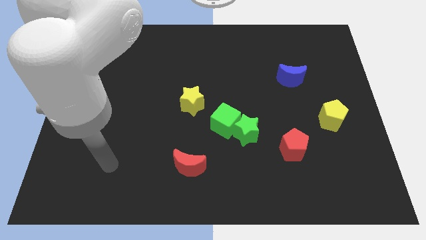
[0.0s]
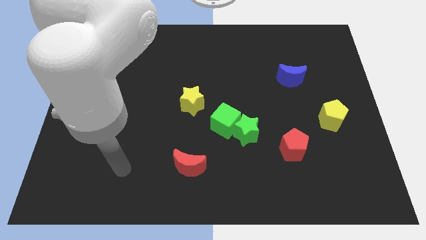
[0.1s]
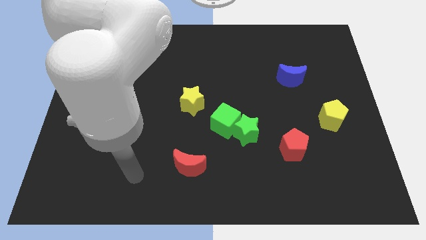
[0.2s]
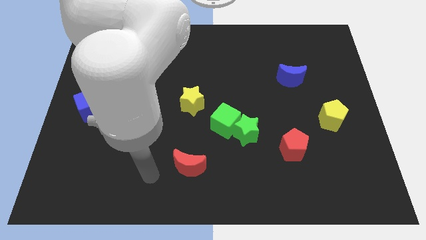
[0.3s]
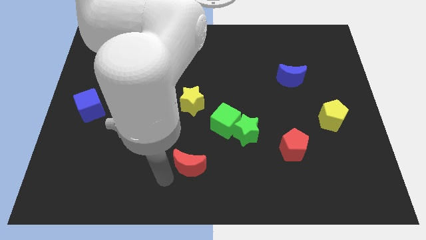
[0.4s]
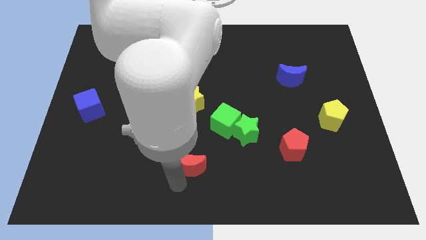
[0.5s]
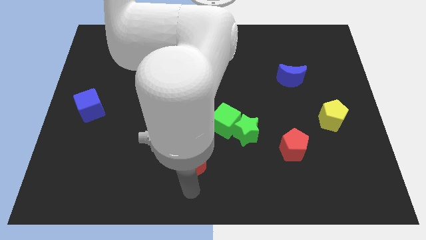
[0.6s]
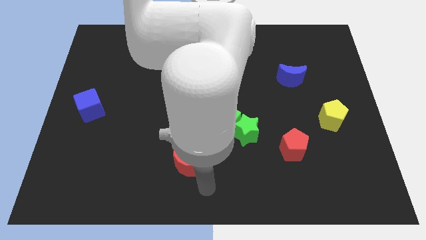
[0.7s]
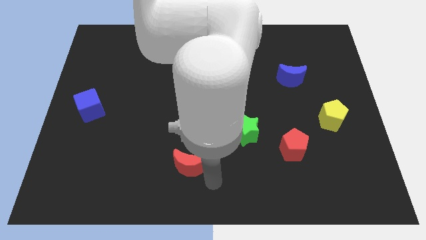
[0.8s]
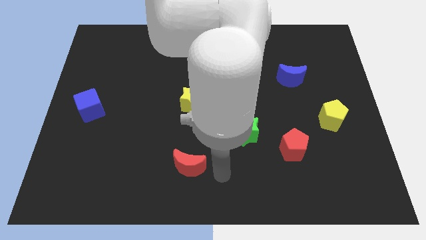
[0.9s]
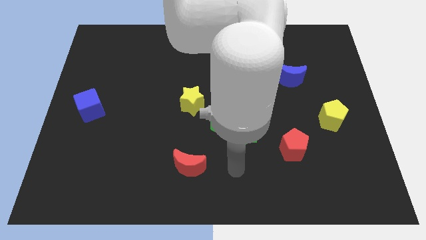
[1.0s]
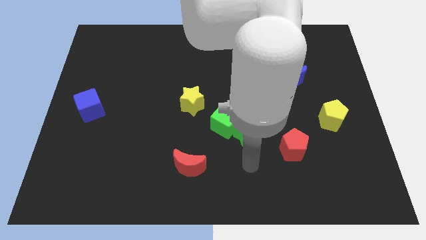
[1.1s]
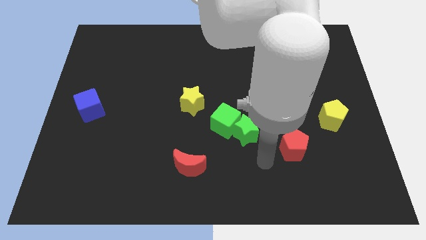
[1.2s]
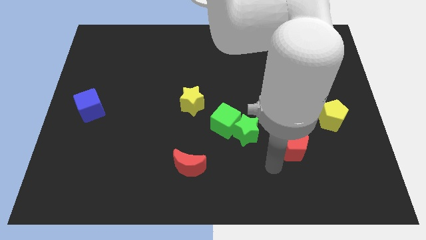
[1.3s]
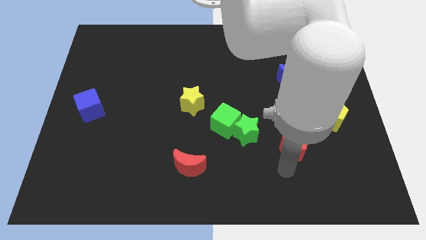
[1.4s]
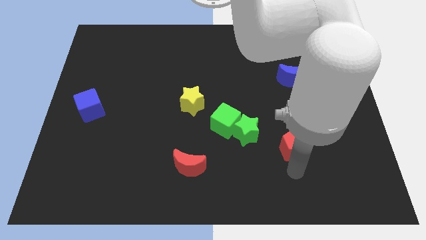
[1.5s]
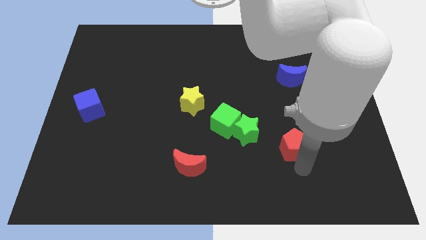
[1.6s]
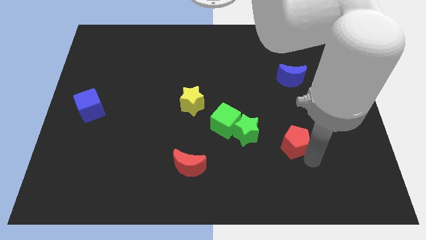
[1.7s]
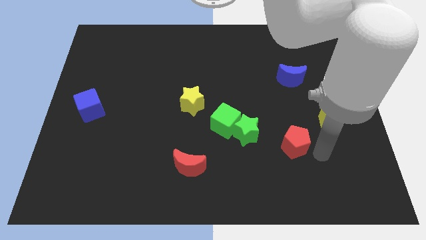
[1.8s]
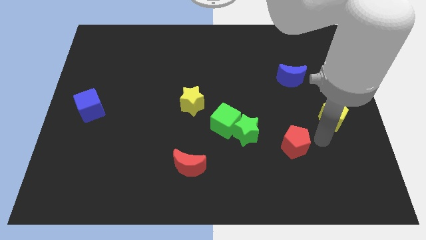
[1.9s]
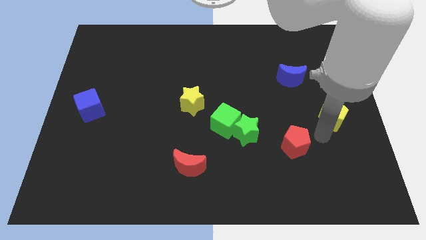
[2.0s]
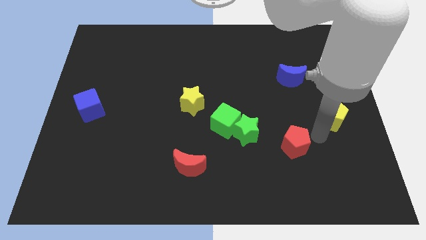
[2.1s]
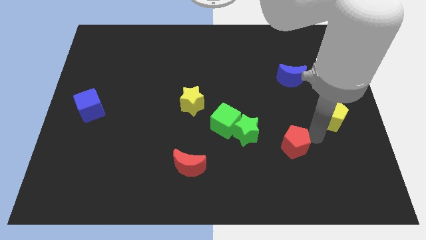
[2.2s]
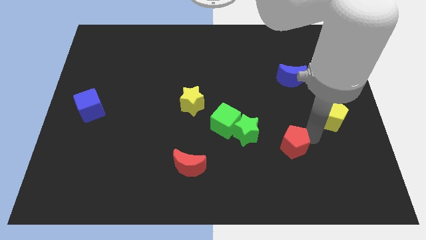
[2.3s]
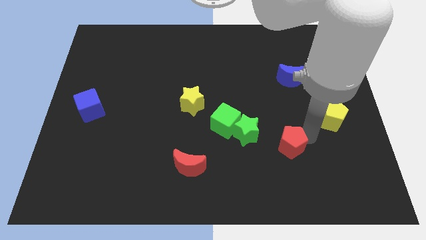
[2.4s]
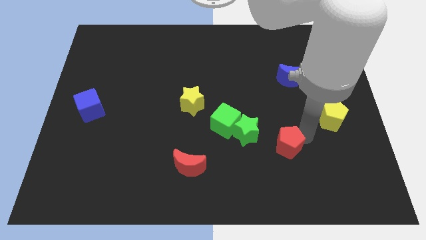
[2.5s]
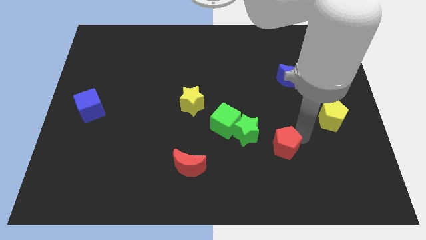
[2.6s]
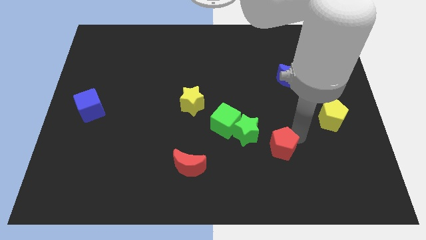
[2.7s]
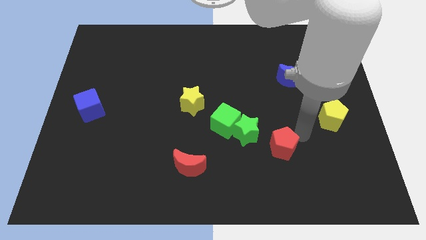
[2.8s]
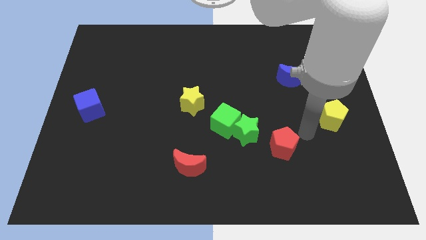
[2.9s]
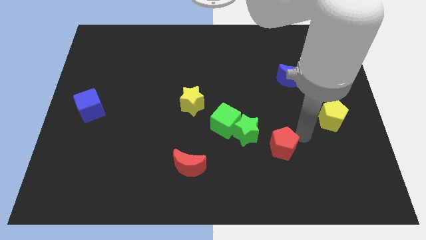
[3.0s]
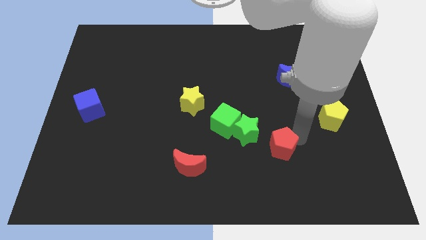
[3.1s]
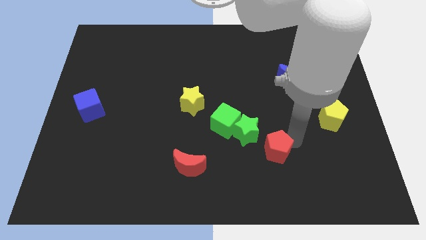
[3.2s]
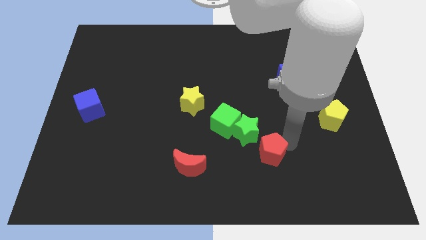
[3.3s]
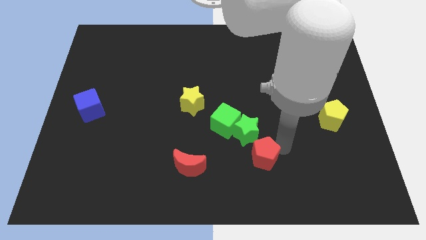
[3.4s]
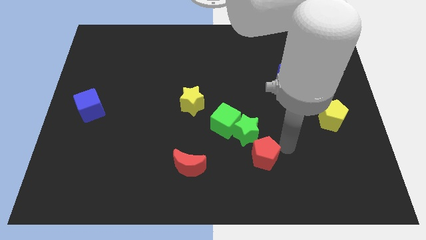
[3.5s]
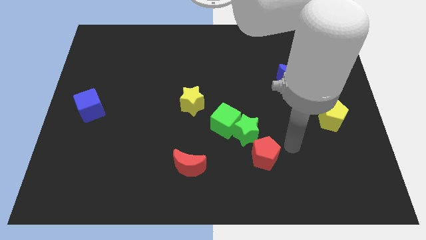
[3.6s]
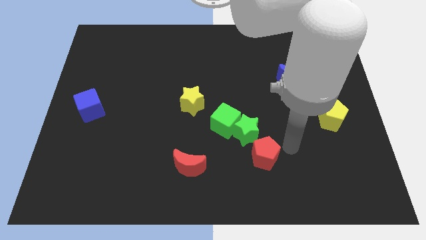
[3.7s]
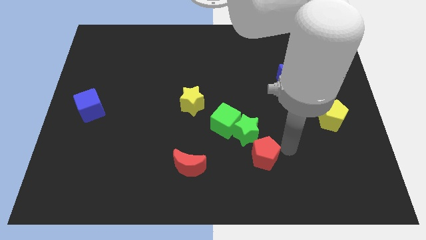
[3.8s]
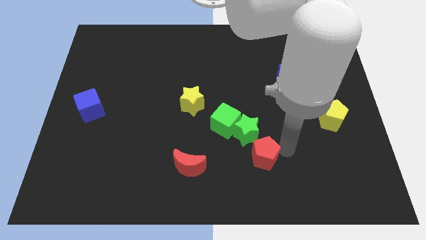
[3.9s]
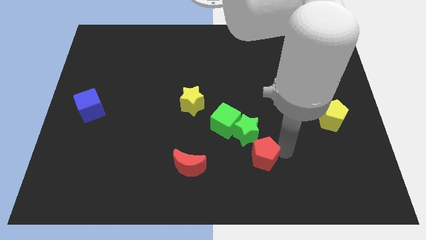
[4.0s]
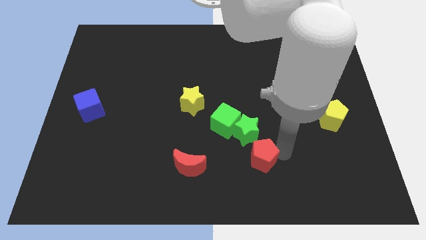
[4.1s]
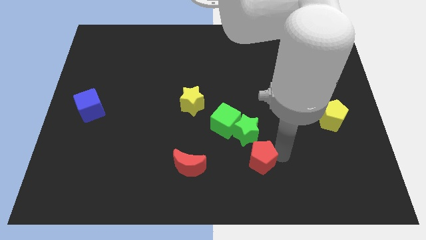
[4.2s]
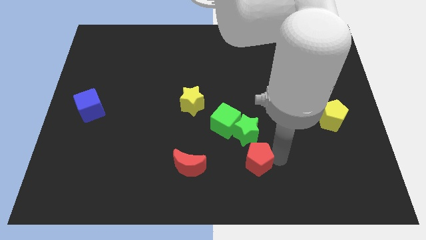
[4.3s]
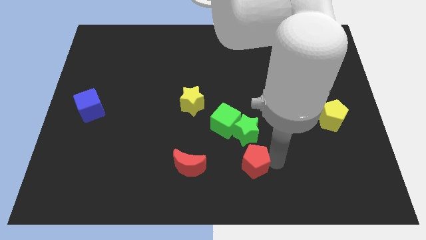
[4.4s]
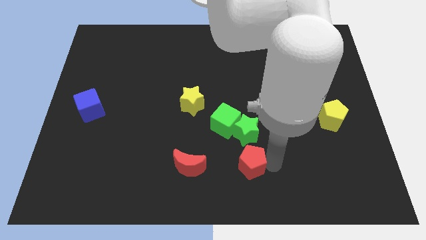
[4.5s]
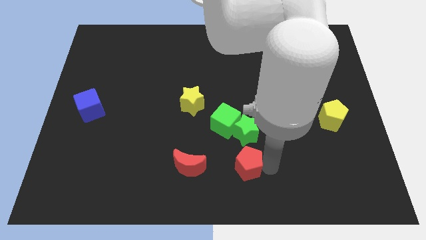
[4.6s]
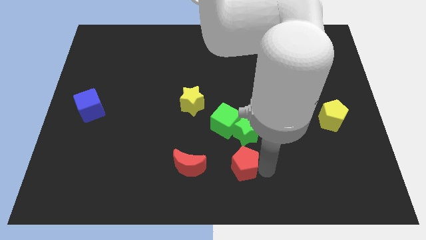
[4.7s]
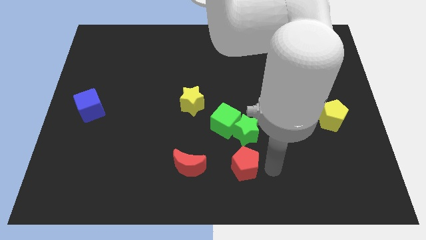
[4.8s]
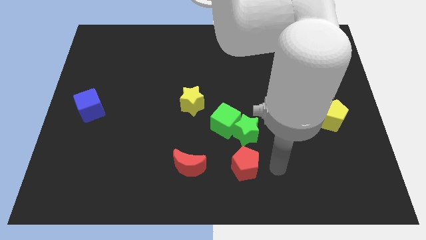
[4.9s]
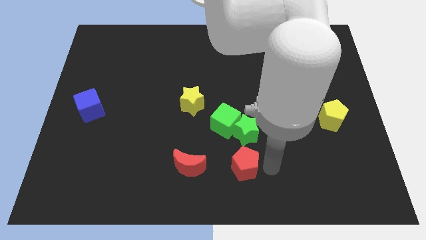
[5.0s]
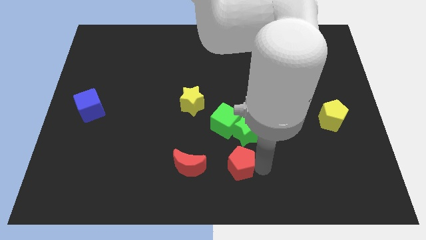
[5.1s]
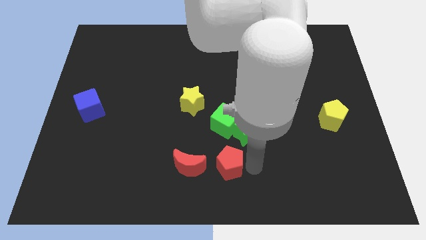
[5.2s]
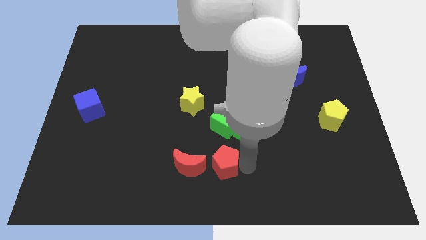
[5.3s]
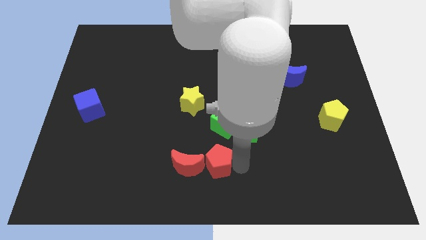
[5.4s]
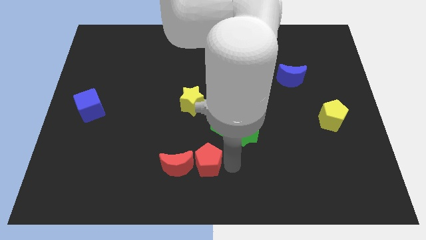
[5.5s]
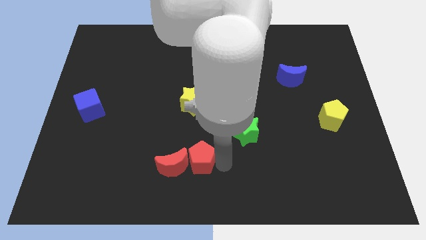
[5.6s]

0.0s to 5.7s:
slide the red pentagon to the red moon

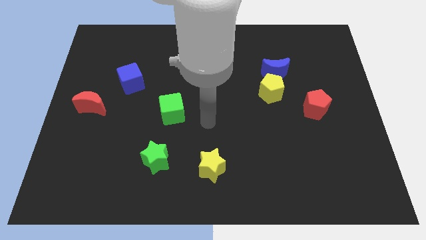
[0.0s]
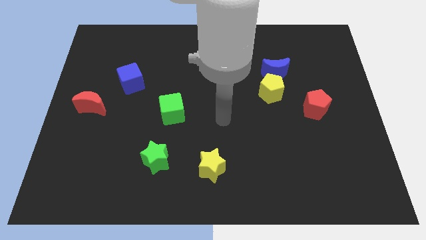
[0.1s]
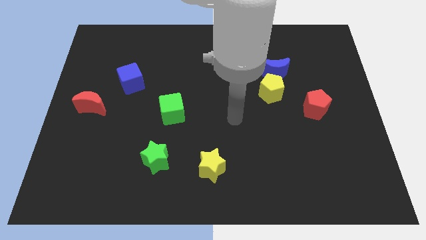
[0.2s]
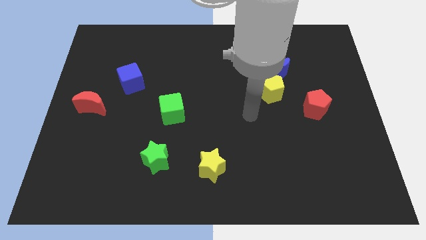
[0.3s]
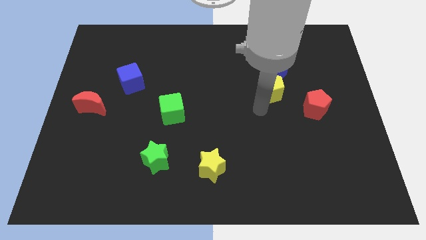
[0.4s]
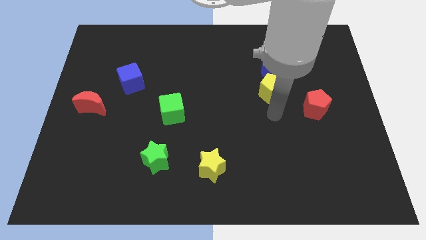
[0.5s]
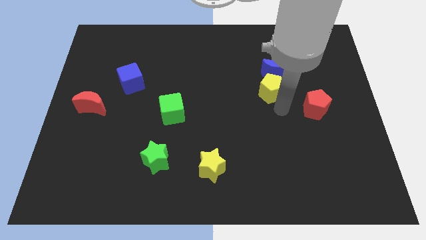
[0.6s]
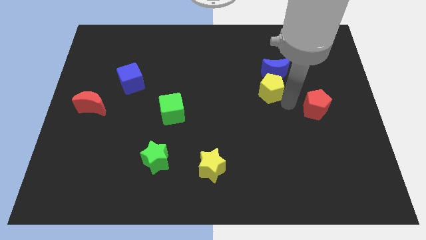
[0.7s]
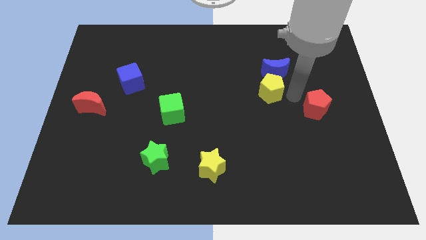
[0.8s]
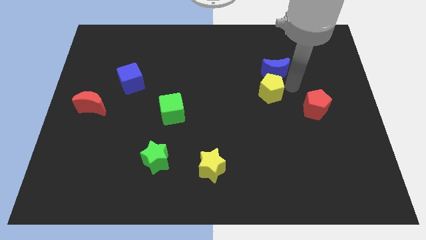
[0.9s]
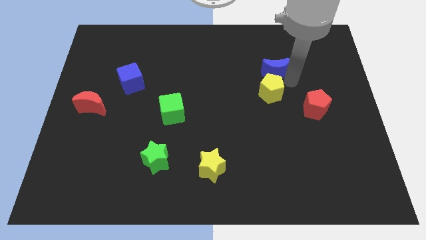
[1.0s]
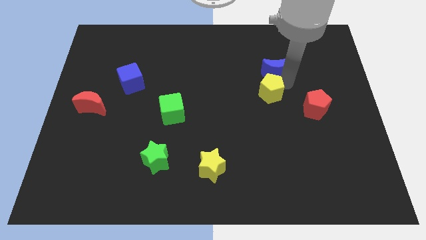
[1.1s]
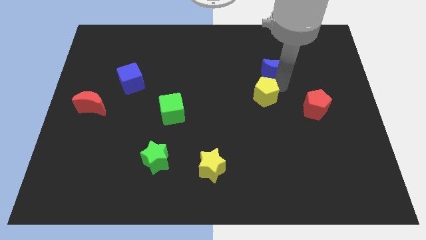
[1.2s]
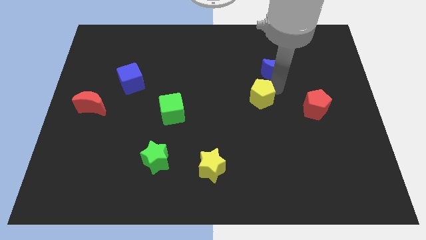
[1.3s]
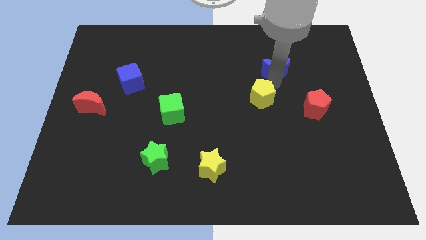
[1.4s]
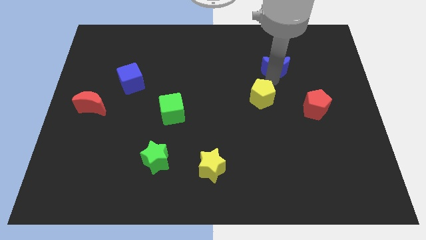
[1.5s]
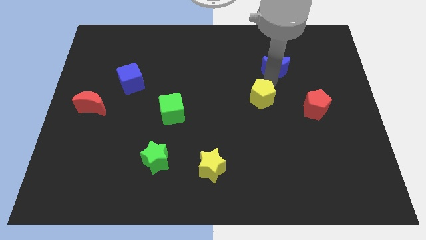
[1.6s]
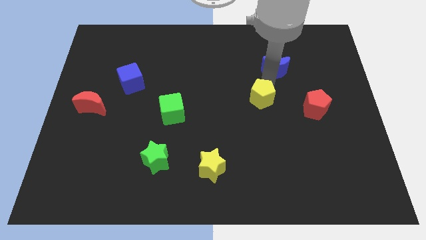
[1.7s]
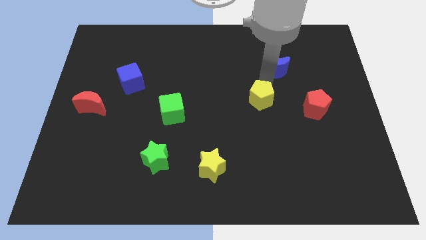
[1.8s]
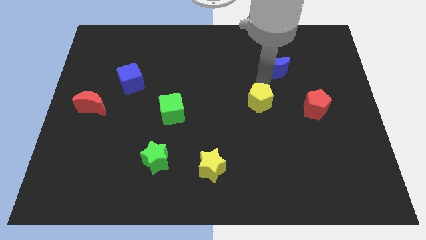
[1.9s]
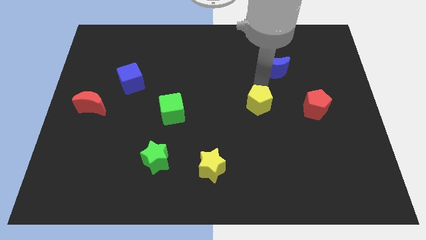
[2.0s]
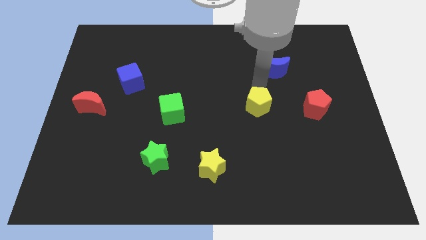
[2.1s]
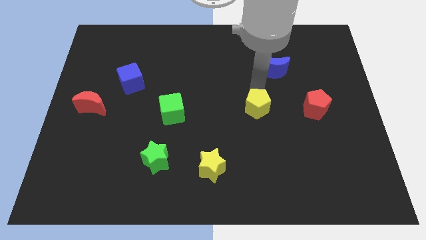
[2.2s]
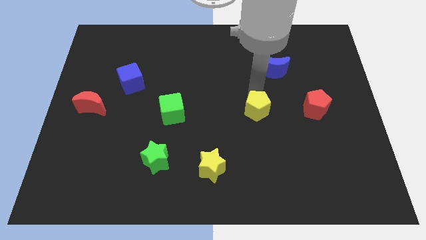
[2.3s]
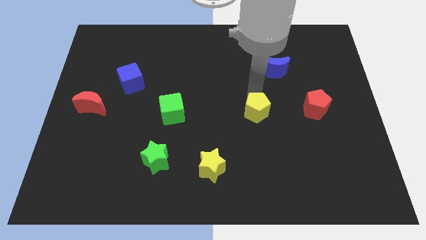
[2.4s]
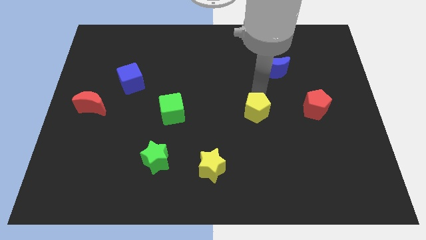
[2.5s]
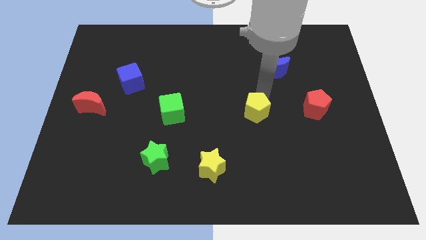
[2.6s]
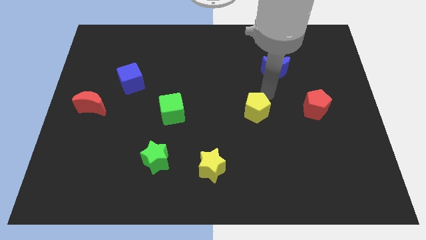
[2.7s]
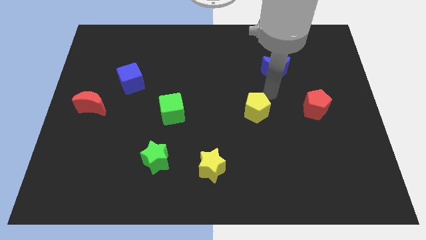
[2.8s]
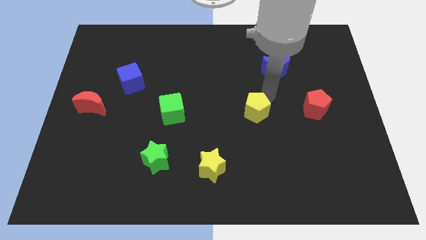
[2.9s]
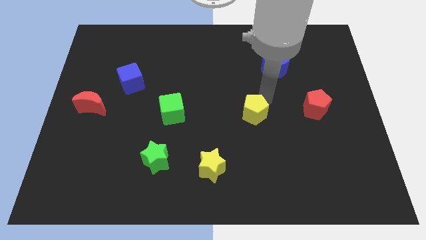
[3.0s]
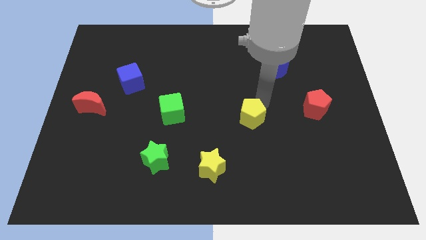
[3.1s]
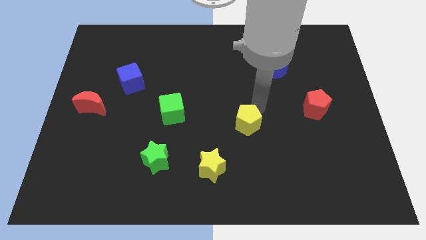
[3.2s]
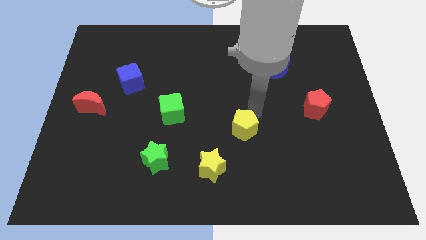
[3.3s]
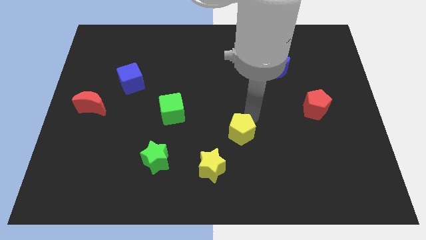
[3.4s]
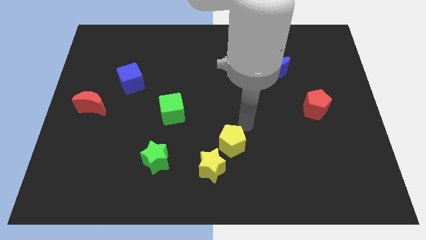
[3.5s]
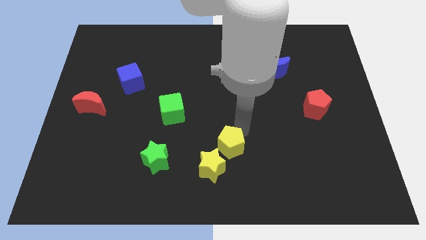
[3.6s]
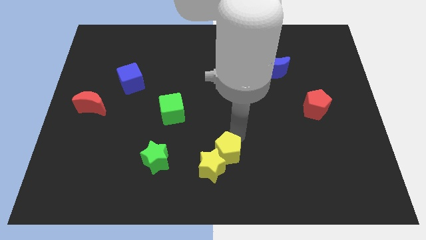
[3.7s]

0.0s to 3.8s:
slide the yellow pentagon to the yellow star
